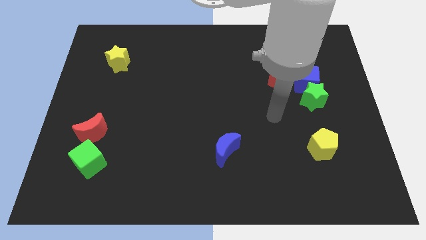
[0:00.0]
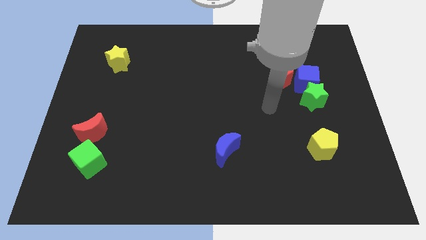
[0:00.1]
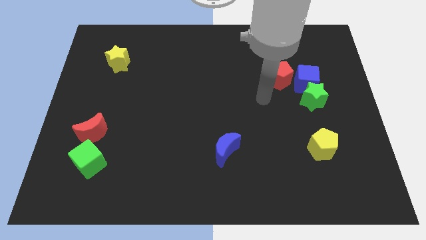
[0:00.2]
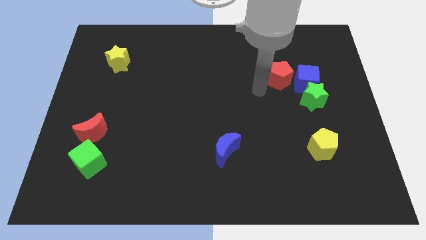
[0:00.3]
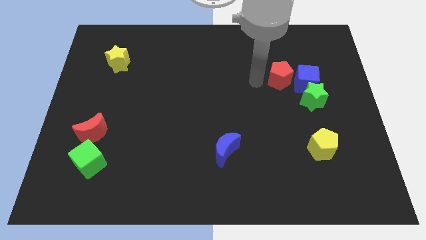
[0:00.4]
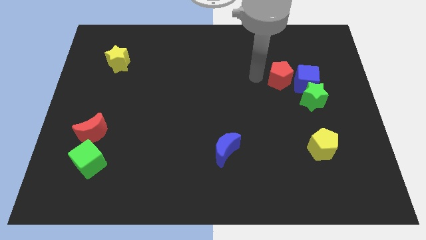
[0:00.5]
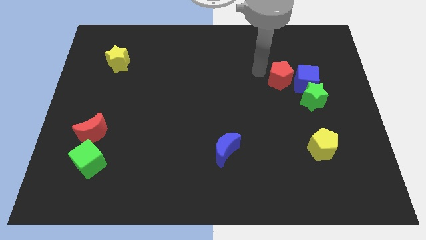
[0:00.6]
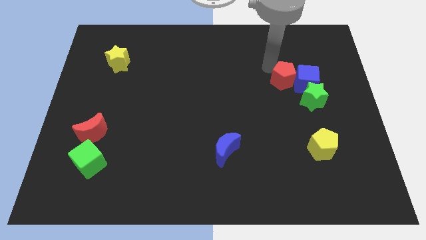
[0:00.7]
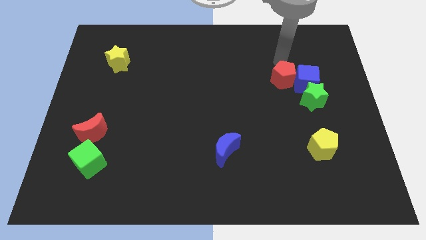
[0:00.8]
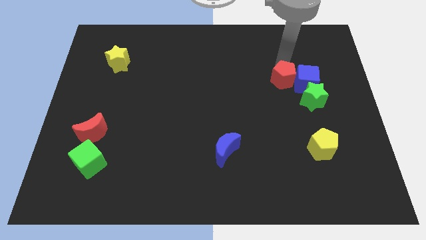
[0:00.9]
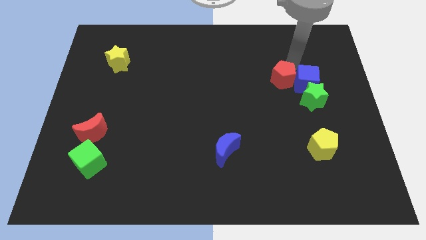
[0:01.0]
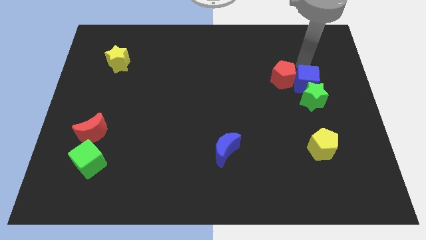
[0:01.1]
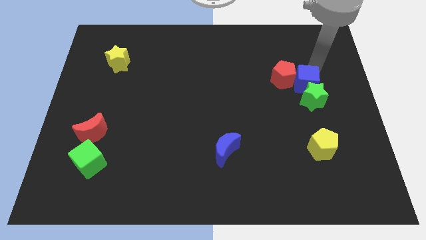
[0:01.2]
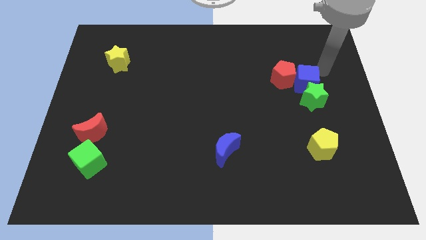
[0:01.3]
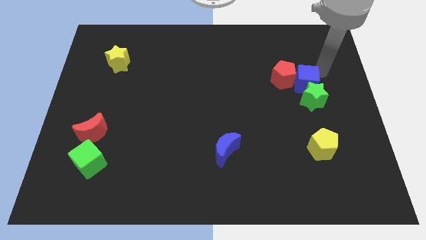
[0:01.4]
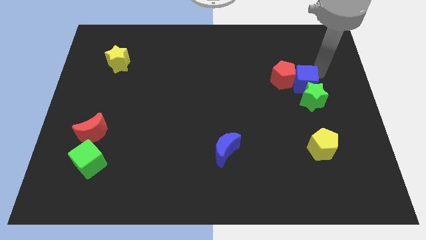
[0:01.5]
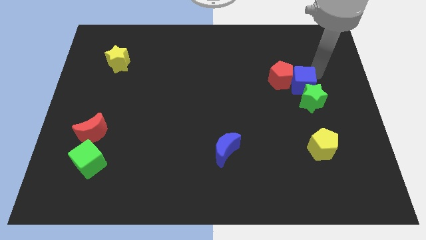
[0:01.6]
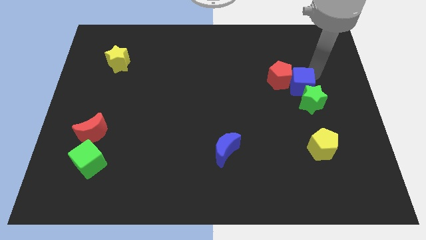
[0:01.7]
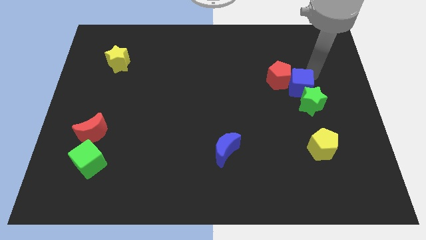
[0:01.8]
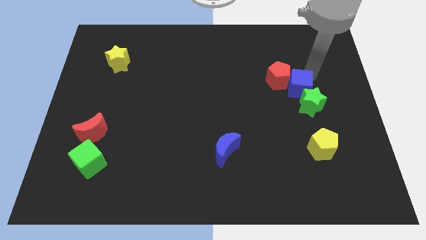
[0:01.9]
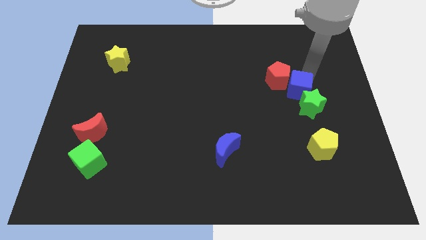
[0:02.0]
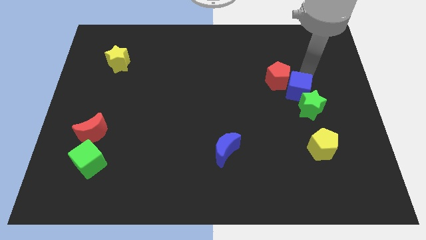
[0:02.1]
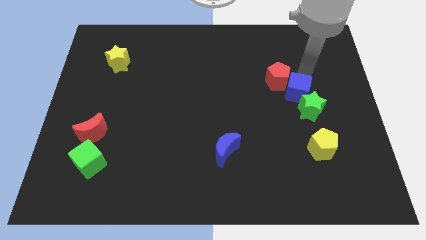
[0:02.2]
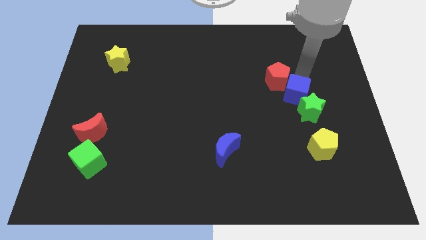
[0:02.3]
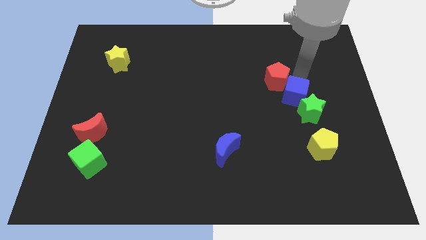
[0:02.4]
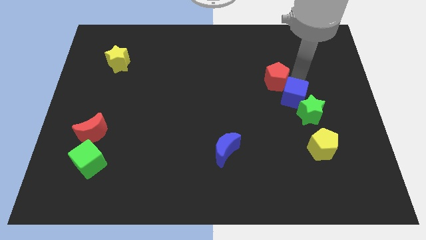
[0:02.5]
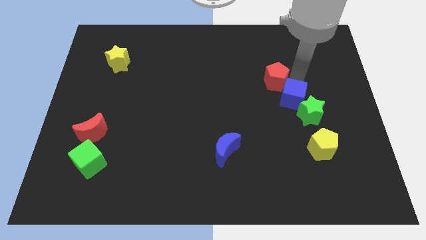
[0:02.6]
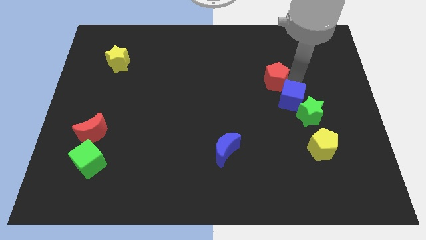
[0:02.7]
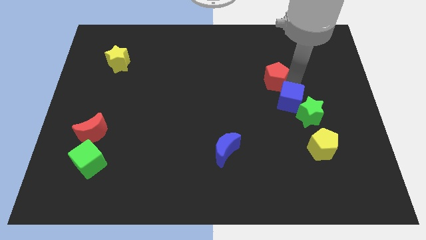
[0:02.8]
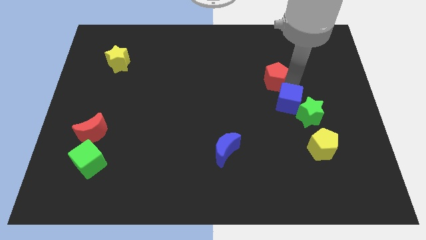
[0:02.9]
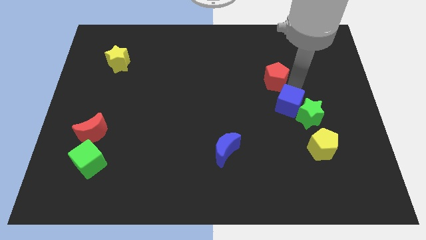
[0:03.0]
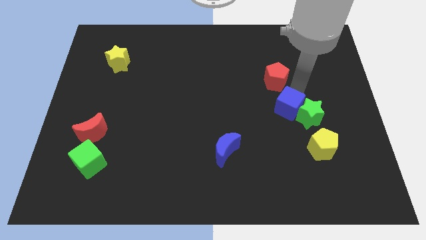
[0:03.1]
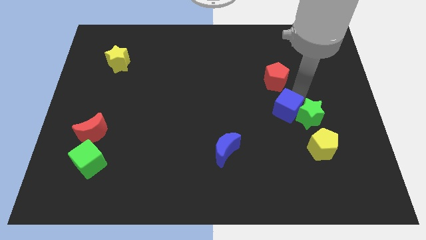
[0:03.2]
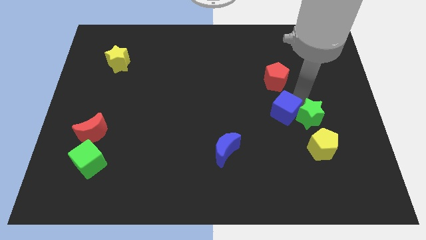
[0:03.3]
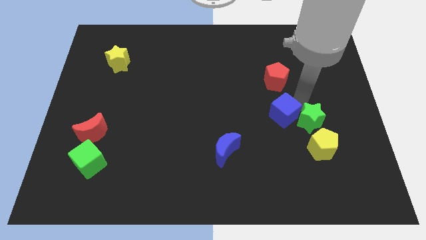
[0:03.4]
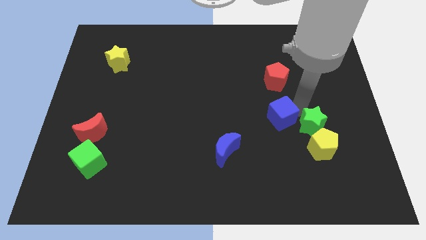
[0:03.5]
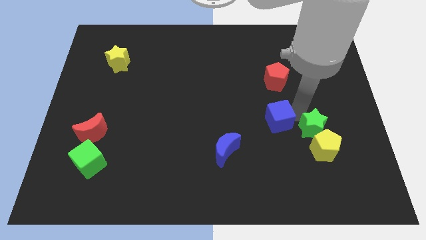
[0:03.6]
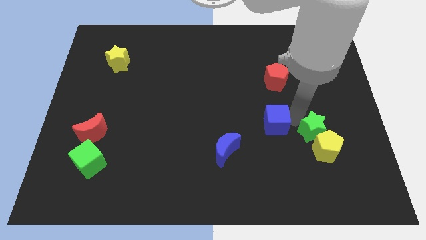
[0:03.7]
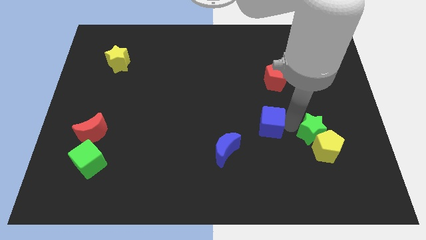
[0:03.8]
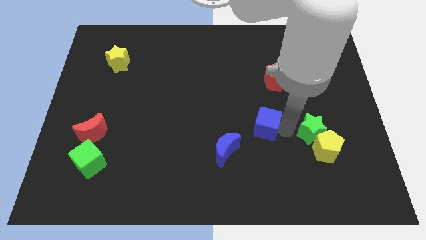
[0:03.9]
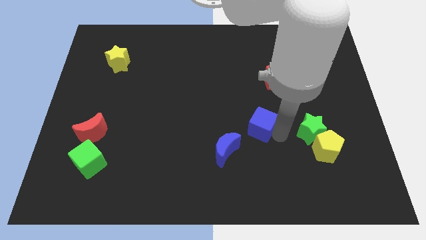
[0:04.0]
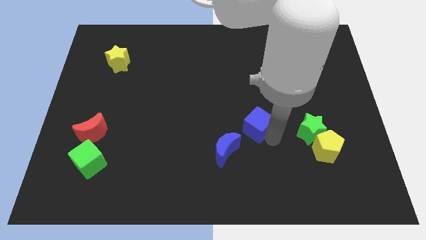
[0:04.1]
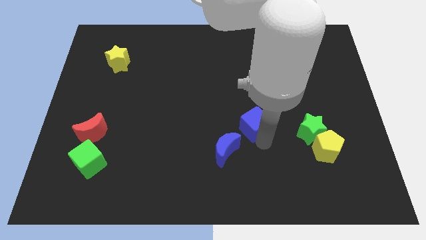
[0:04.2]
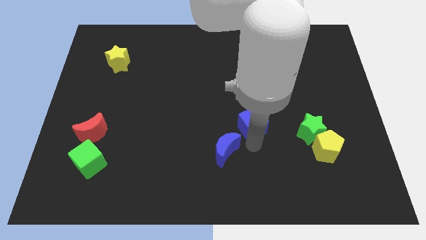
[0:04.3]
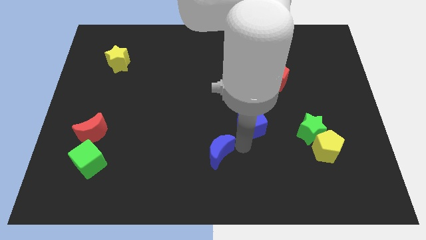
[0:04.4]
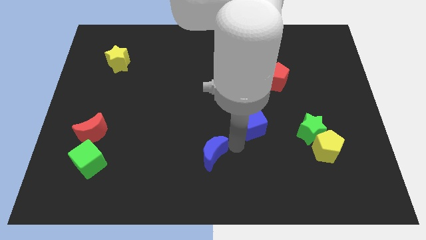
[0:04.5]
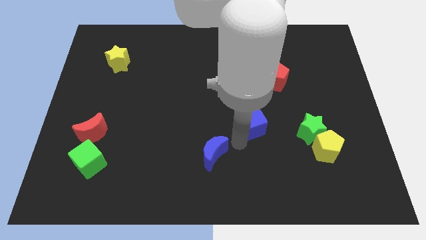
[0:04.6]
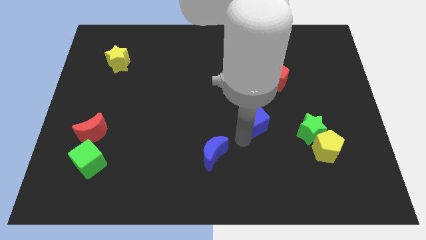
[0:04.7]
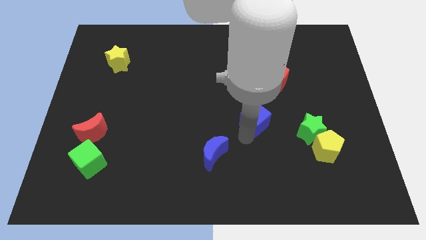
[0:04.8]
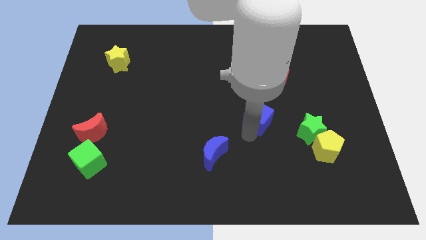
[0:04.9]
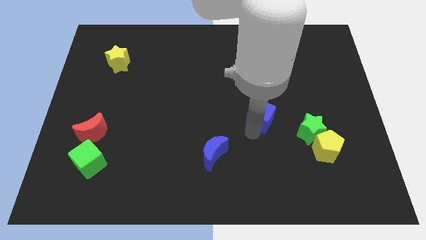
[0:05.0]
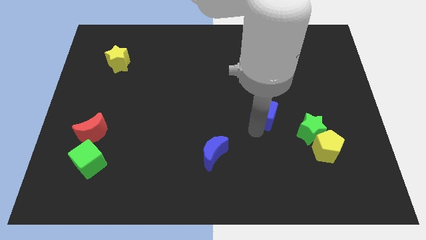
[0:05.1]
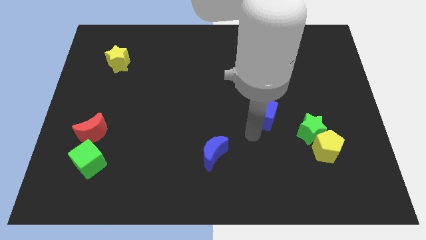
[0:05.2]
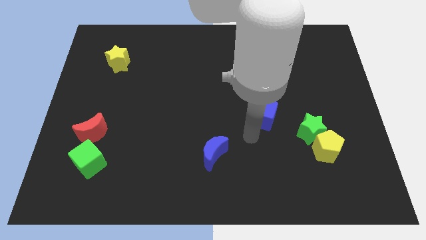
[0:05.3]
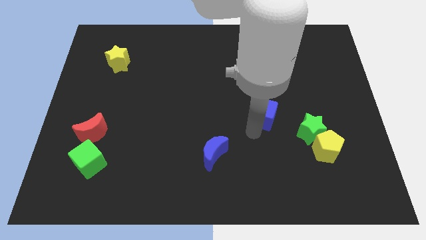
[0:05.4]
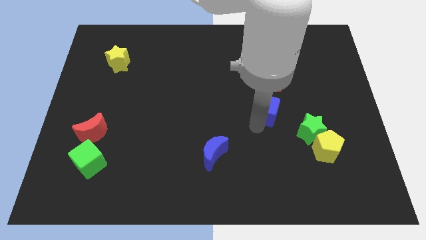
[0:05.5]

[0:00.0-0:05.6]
move the blue cube a bit to the left

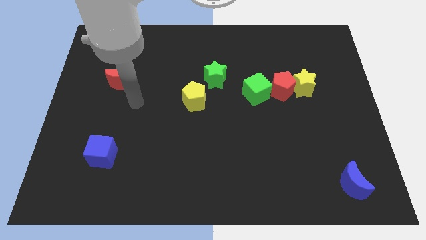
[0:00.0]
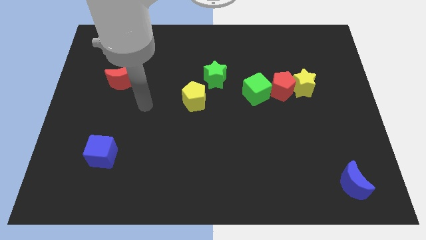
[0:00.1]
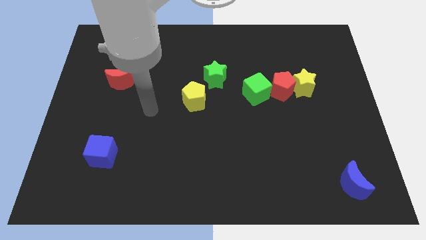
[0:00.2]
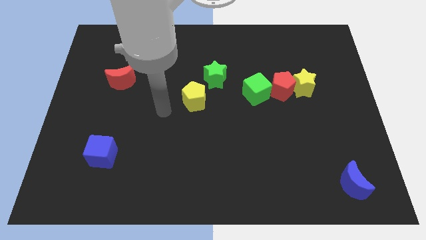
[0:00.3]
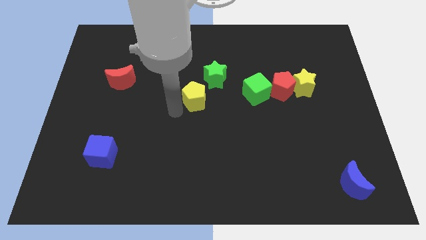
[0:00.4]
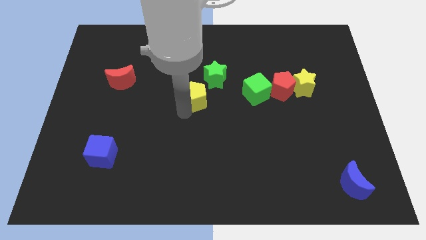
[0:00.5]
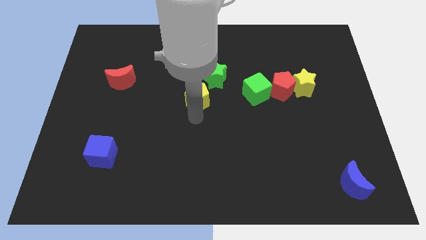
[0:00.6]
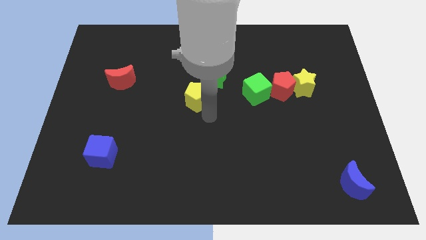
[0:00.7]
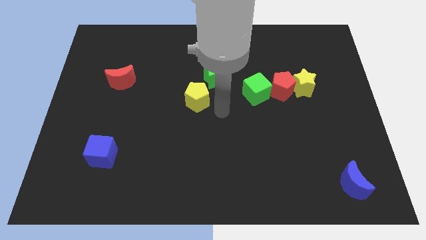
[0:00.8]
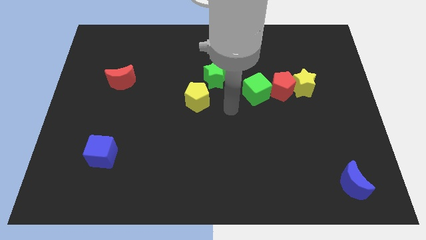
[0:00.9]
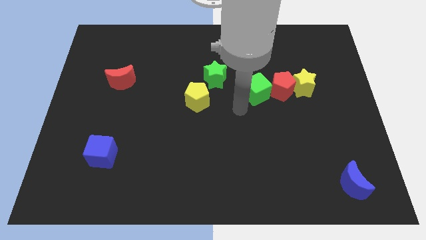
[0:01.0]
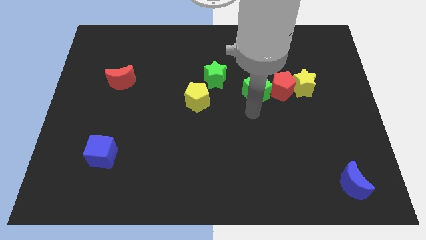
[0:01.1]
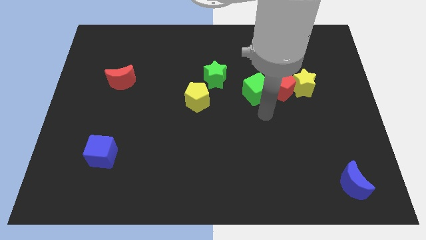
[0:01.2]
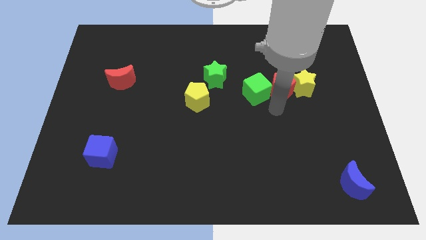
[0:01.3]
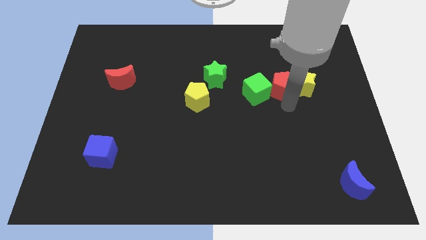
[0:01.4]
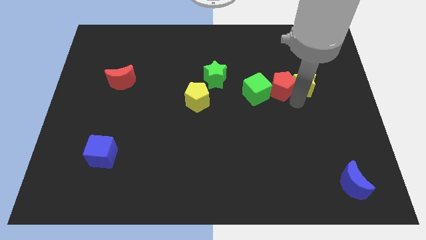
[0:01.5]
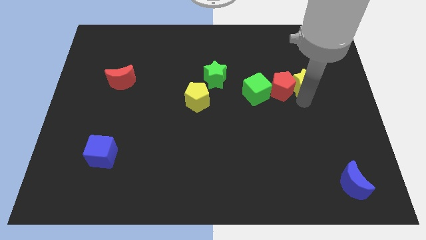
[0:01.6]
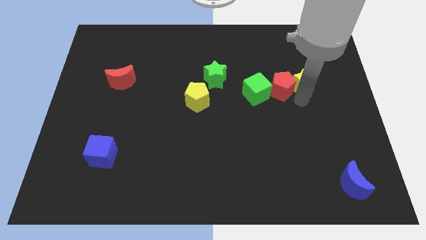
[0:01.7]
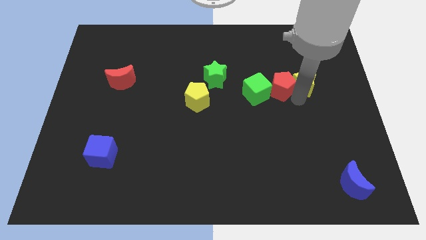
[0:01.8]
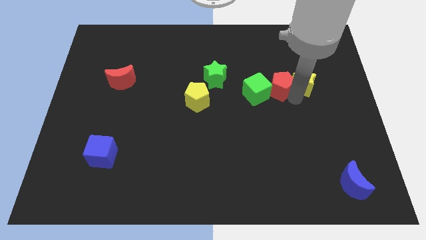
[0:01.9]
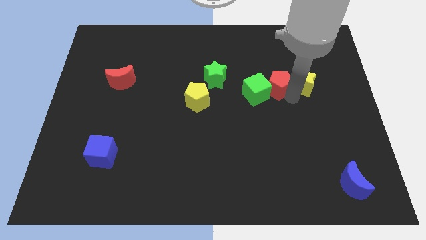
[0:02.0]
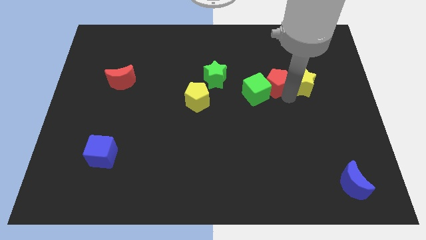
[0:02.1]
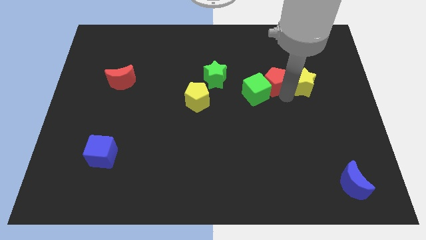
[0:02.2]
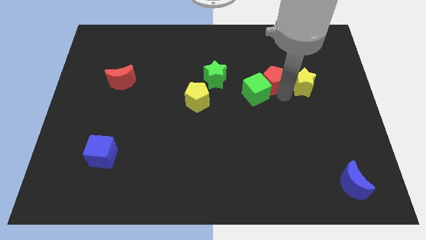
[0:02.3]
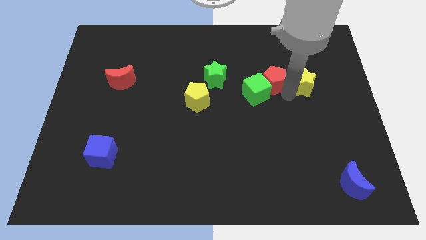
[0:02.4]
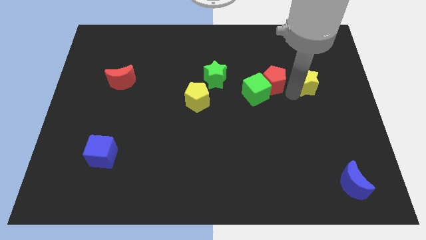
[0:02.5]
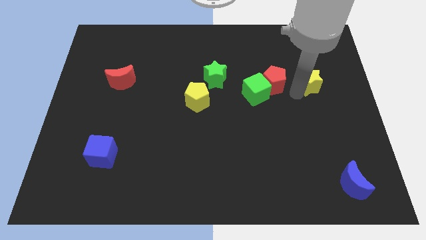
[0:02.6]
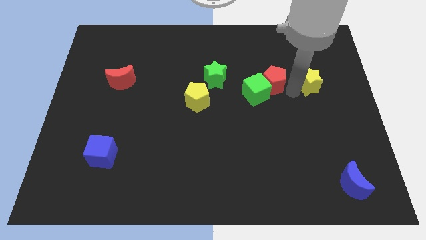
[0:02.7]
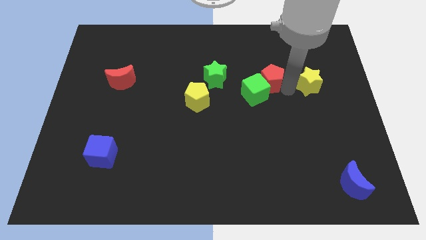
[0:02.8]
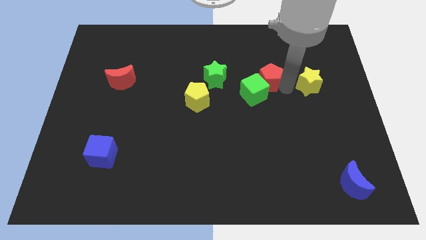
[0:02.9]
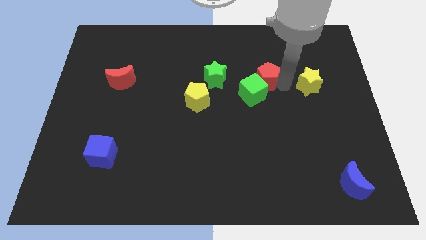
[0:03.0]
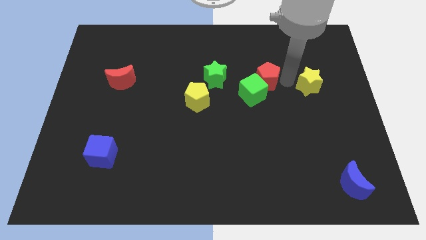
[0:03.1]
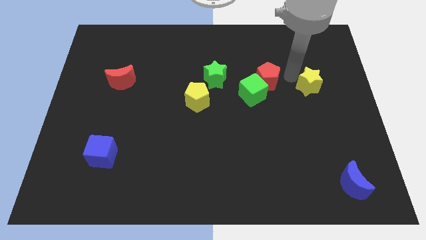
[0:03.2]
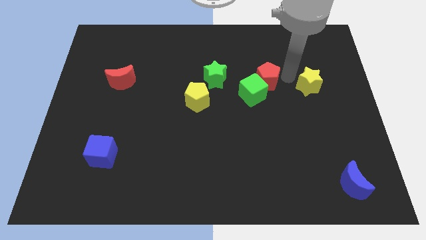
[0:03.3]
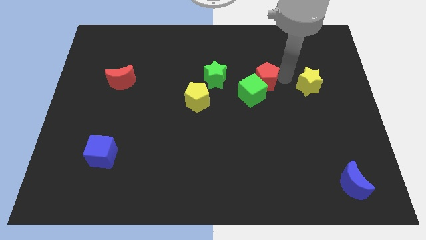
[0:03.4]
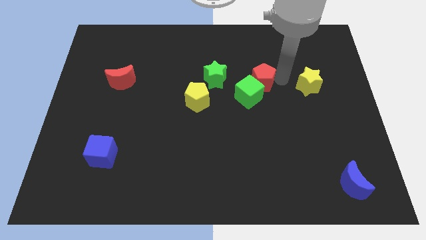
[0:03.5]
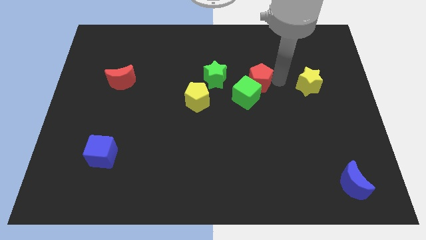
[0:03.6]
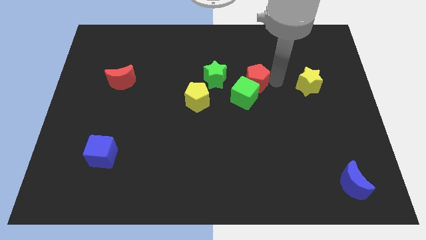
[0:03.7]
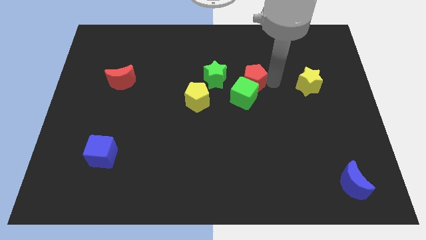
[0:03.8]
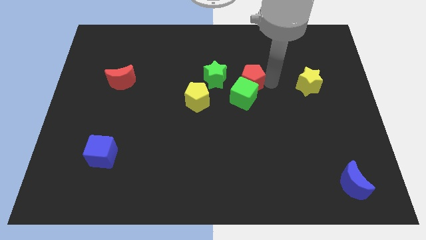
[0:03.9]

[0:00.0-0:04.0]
slightly slide the red pentagon to the left
